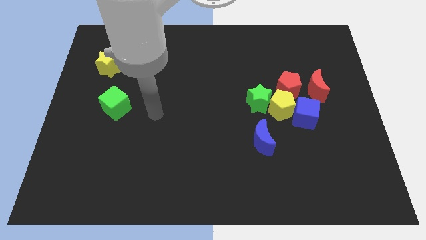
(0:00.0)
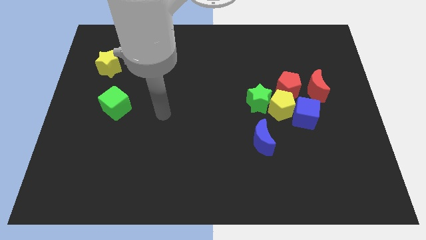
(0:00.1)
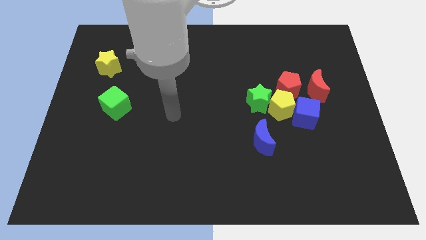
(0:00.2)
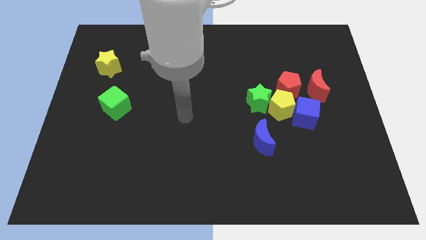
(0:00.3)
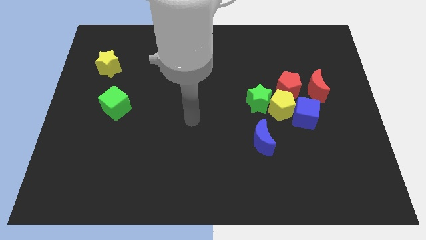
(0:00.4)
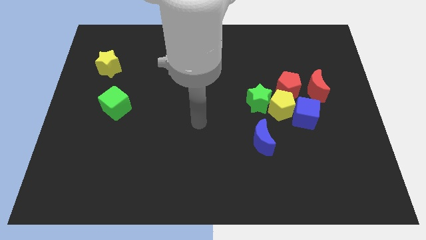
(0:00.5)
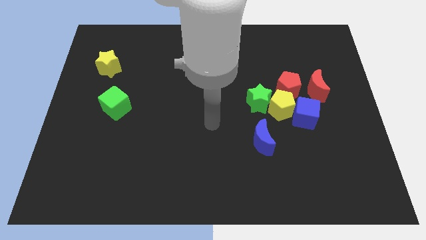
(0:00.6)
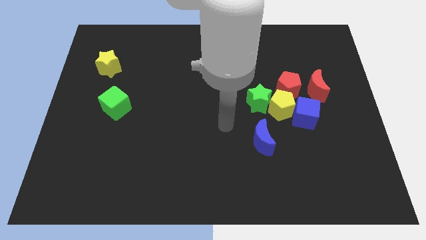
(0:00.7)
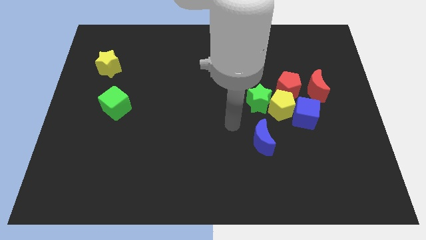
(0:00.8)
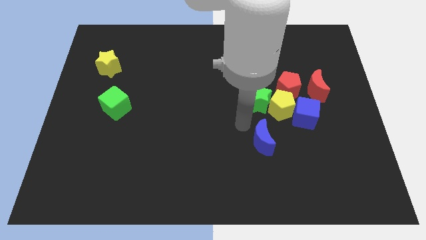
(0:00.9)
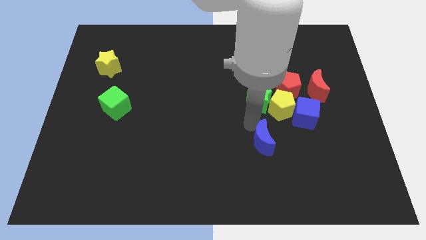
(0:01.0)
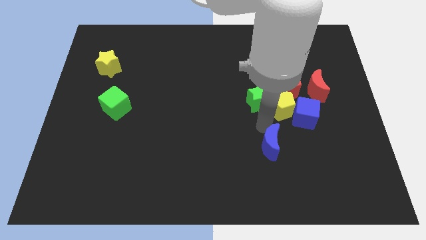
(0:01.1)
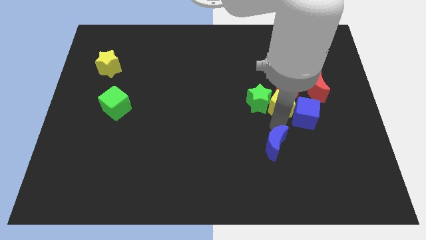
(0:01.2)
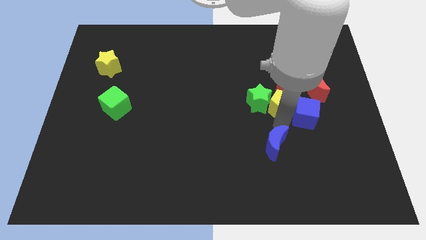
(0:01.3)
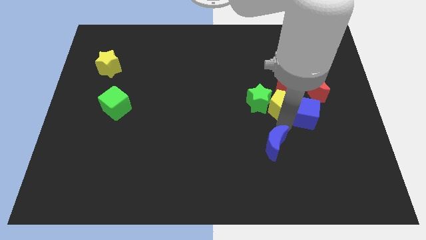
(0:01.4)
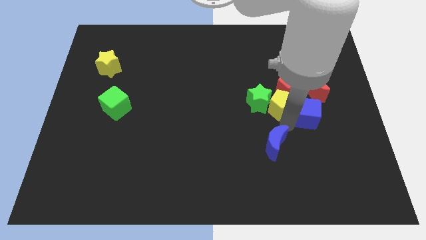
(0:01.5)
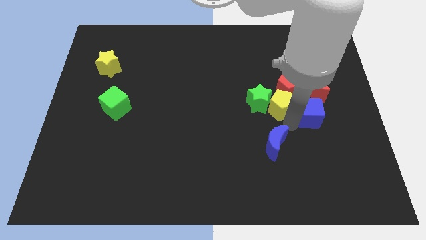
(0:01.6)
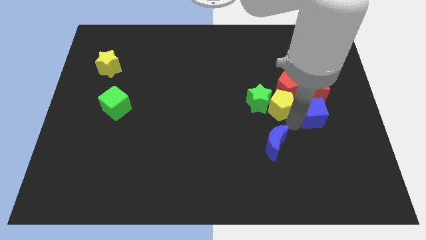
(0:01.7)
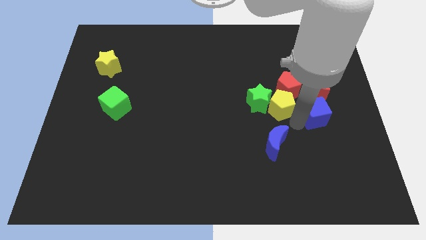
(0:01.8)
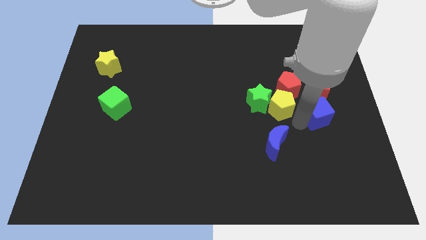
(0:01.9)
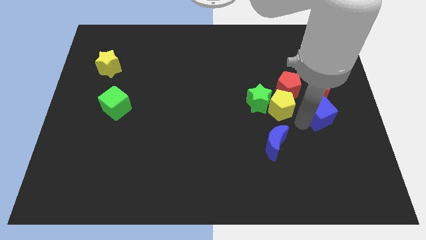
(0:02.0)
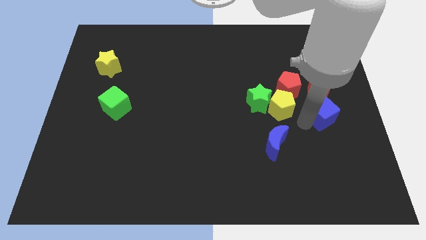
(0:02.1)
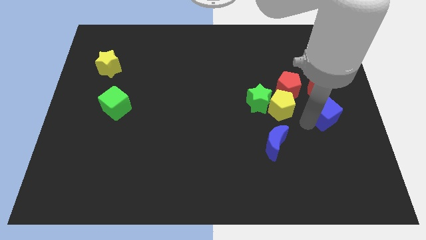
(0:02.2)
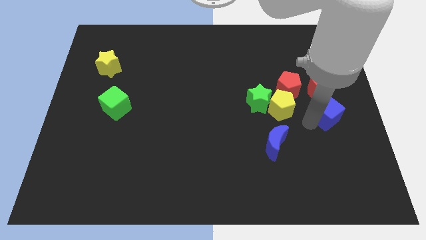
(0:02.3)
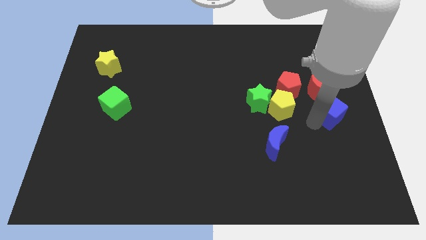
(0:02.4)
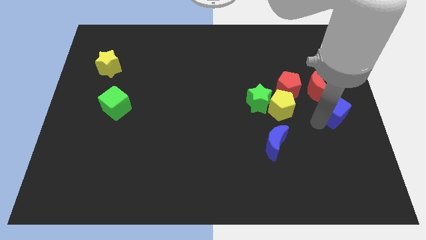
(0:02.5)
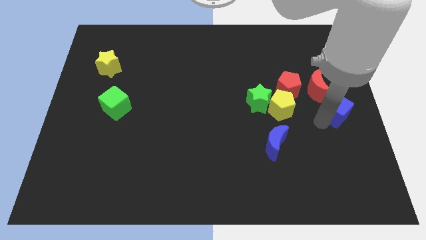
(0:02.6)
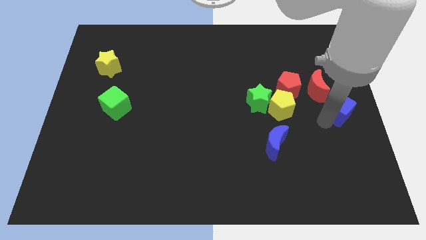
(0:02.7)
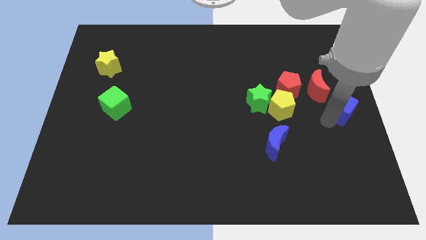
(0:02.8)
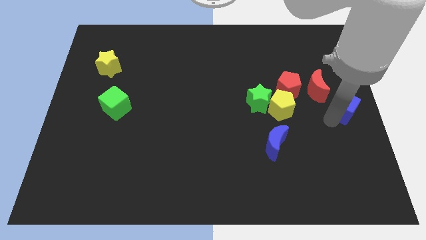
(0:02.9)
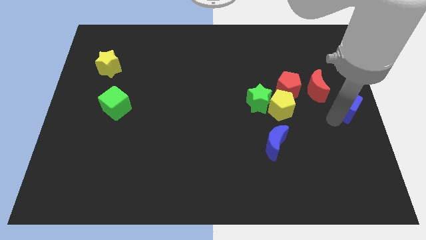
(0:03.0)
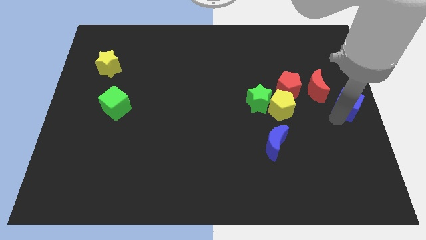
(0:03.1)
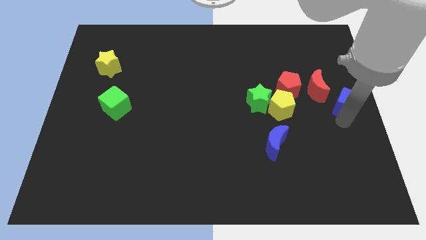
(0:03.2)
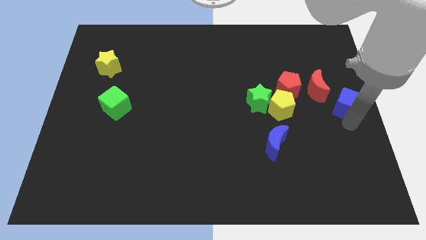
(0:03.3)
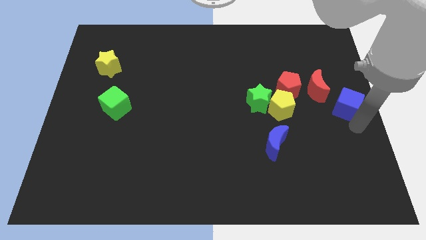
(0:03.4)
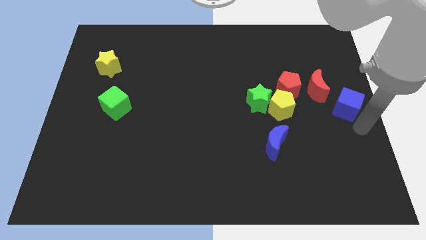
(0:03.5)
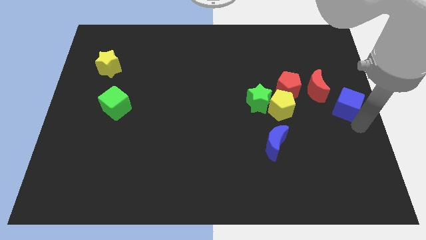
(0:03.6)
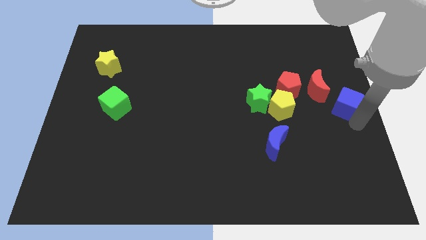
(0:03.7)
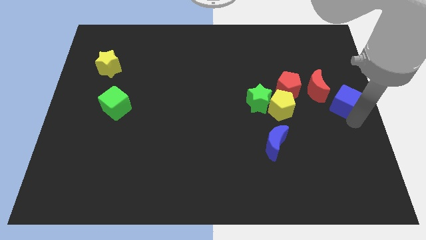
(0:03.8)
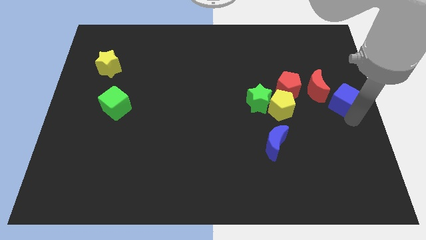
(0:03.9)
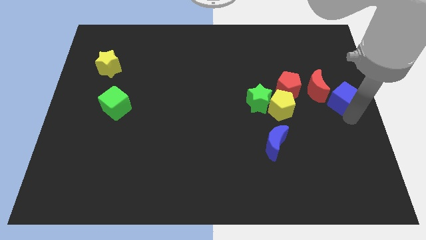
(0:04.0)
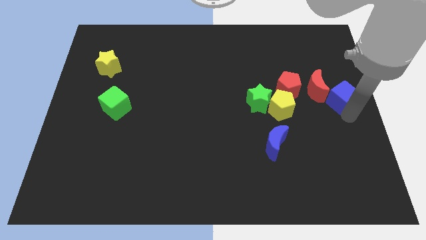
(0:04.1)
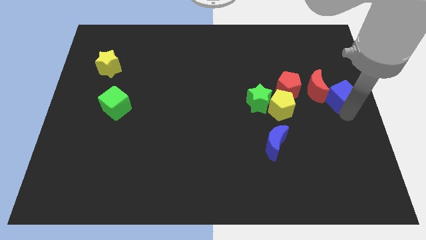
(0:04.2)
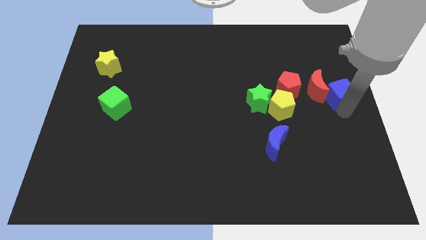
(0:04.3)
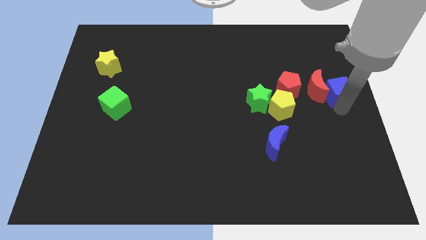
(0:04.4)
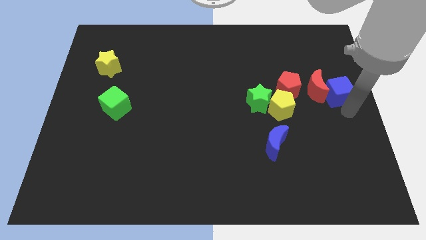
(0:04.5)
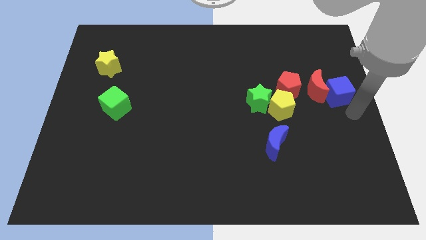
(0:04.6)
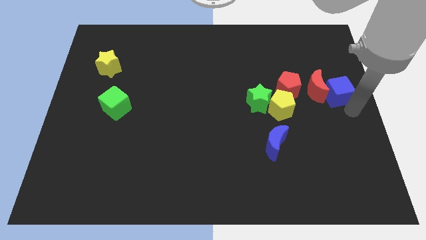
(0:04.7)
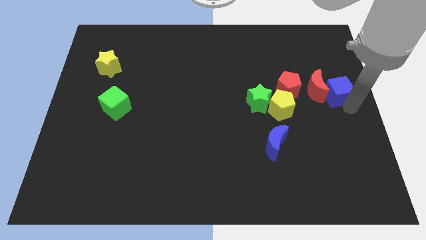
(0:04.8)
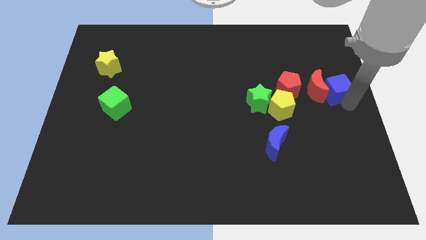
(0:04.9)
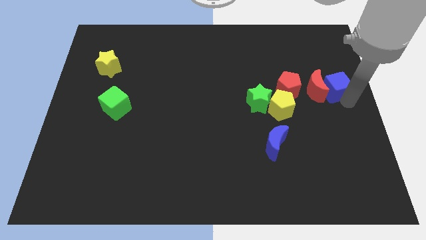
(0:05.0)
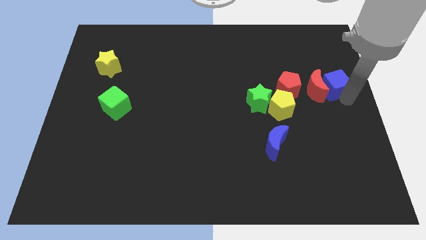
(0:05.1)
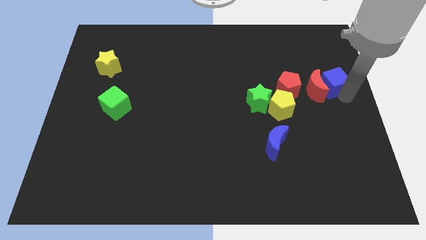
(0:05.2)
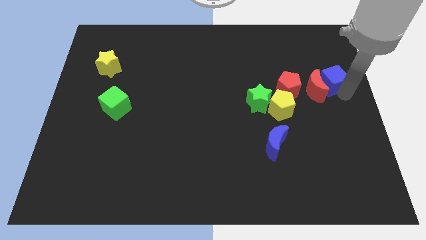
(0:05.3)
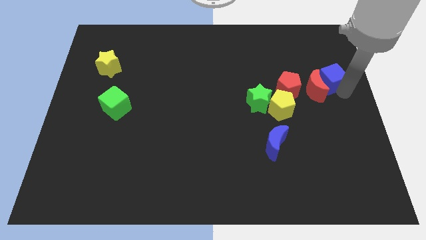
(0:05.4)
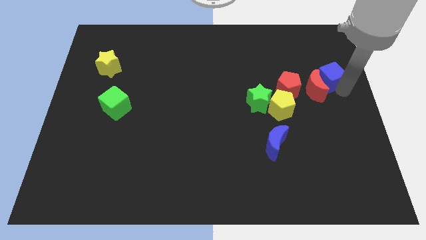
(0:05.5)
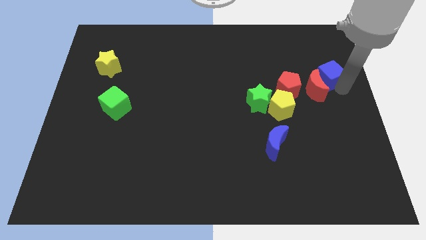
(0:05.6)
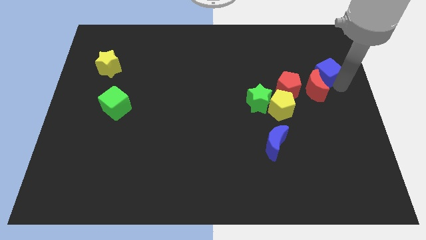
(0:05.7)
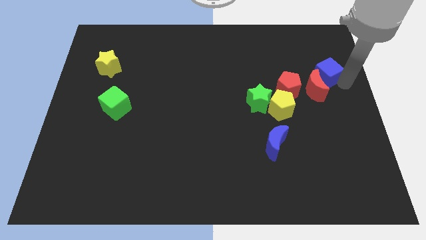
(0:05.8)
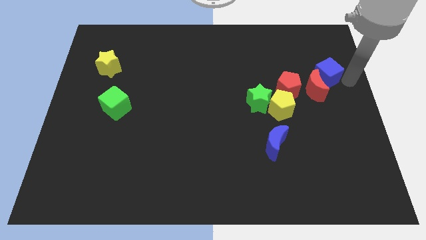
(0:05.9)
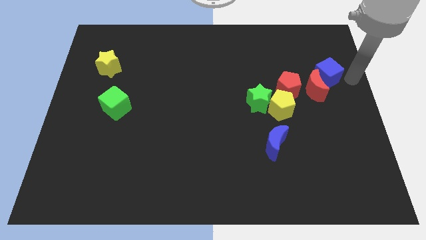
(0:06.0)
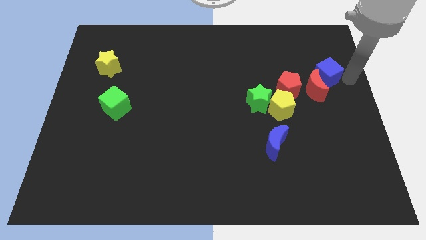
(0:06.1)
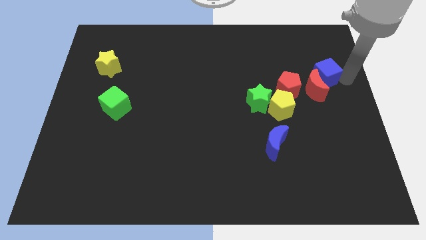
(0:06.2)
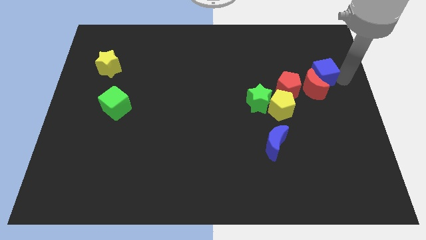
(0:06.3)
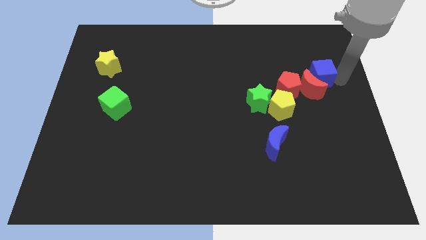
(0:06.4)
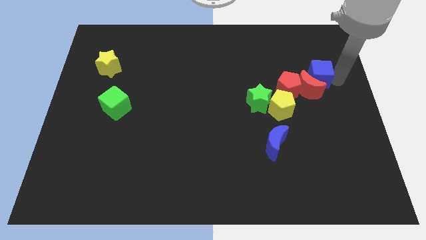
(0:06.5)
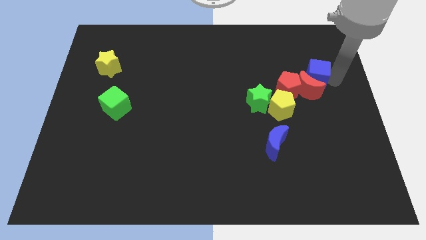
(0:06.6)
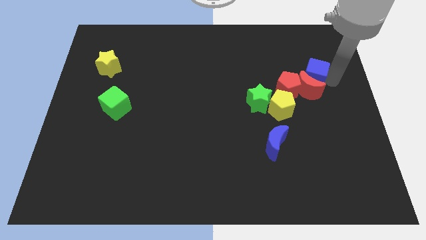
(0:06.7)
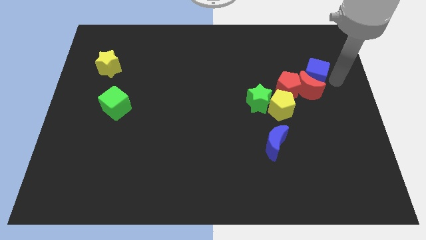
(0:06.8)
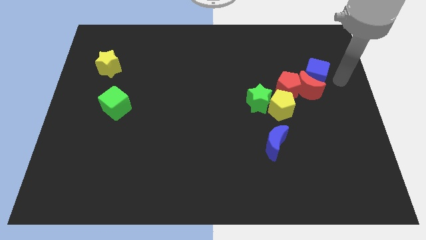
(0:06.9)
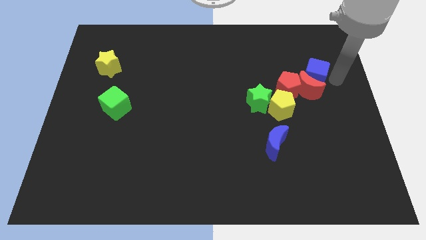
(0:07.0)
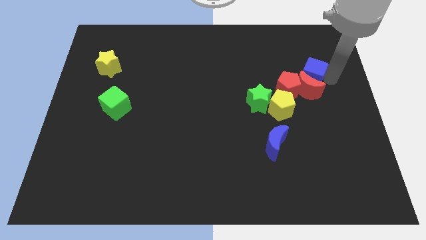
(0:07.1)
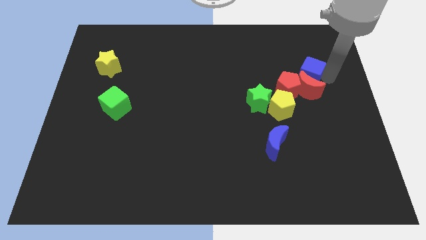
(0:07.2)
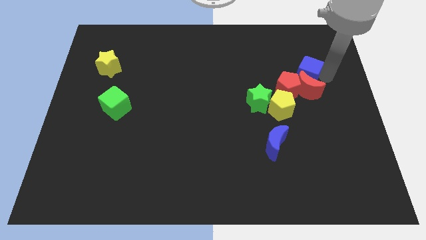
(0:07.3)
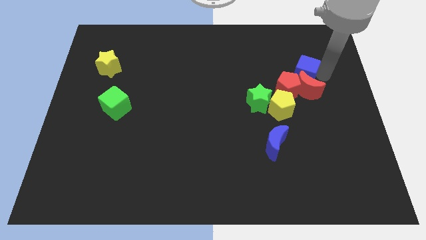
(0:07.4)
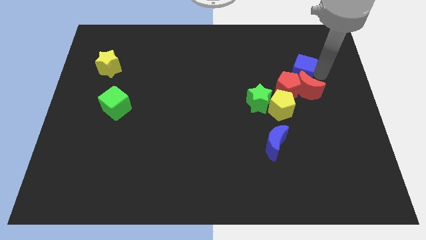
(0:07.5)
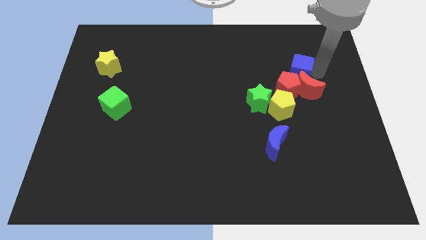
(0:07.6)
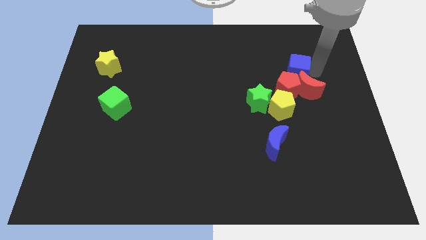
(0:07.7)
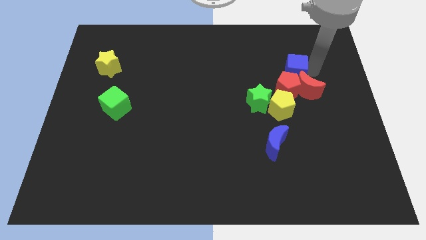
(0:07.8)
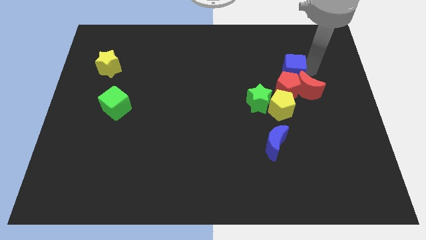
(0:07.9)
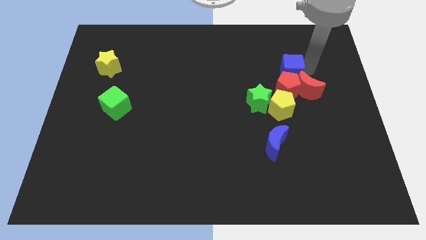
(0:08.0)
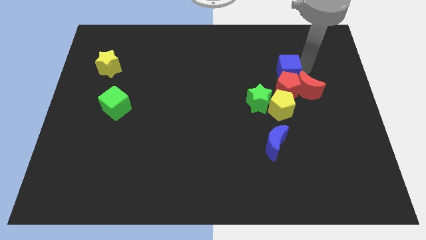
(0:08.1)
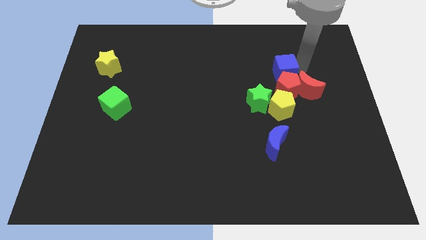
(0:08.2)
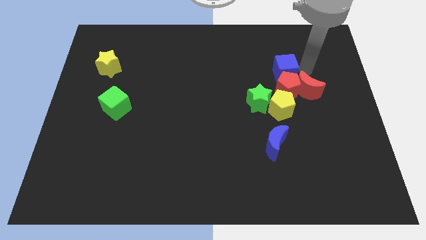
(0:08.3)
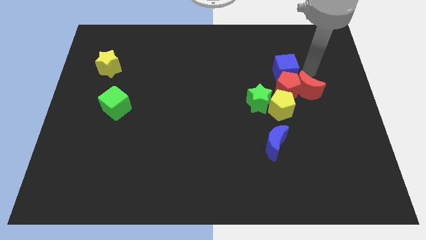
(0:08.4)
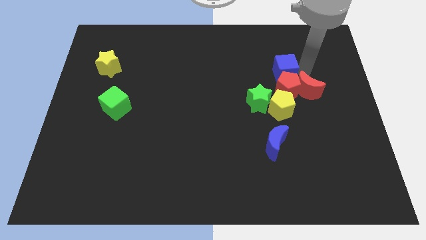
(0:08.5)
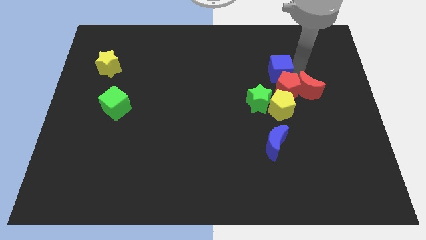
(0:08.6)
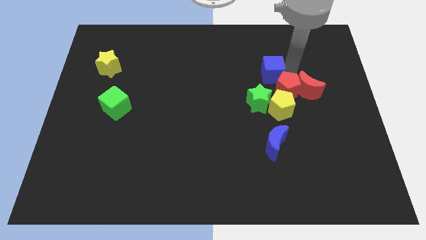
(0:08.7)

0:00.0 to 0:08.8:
push the blue cube to the top side of the green star
